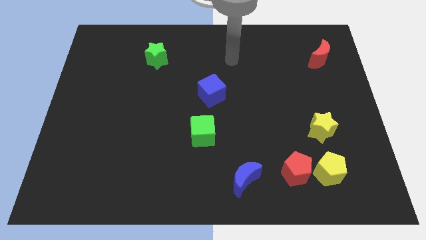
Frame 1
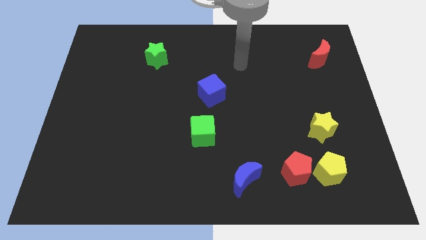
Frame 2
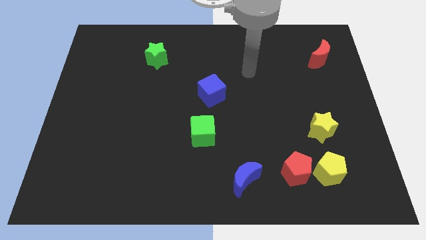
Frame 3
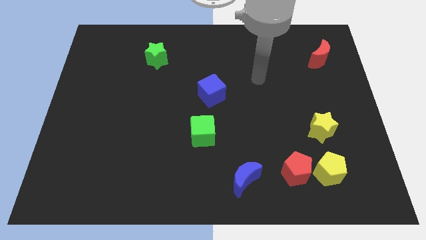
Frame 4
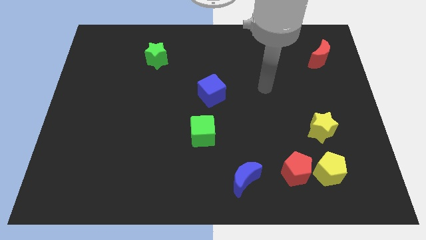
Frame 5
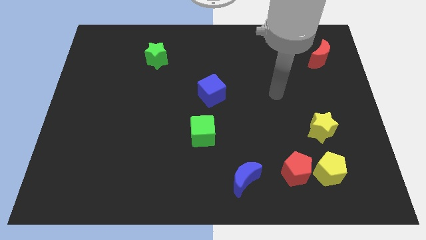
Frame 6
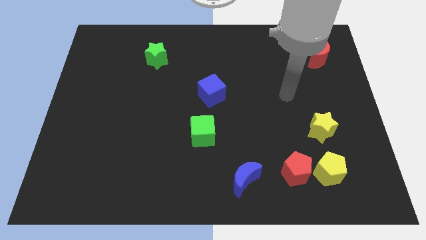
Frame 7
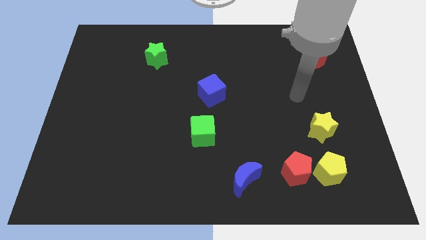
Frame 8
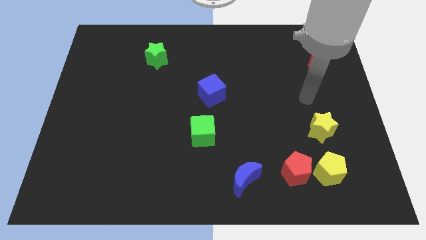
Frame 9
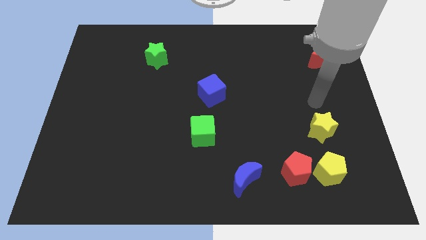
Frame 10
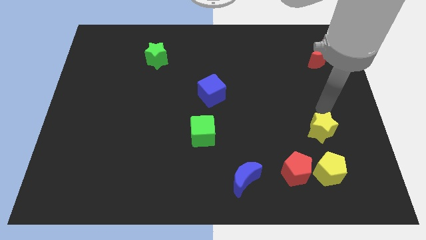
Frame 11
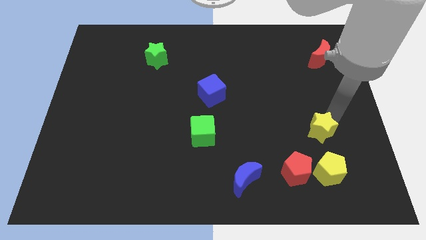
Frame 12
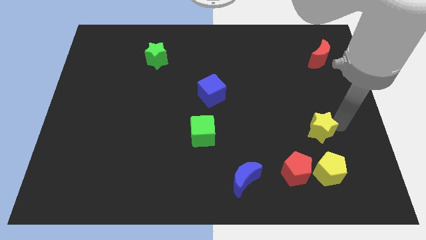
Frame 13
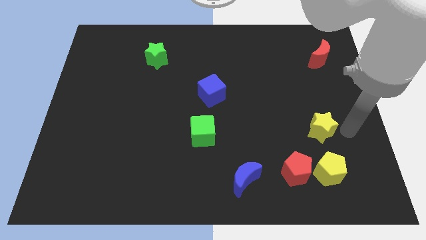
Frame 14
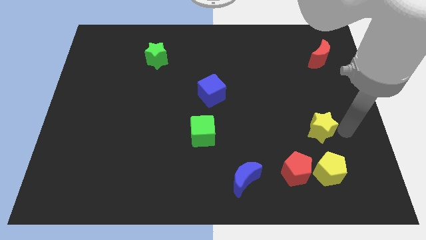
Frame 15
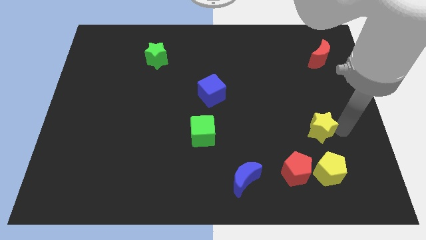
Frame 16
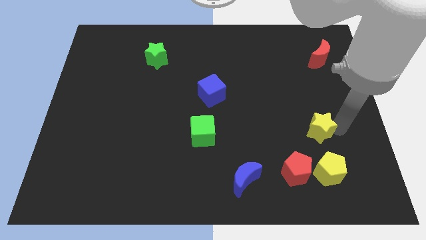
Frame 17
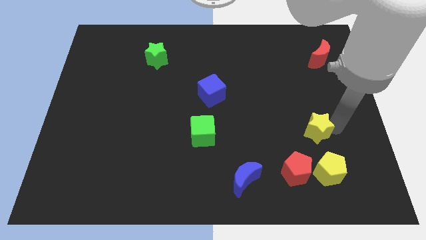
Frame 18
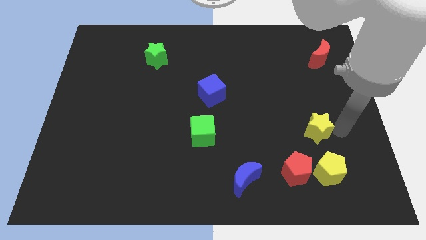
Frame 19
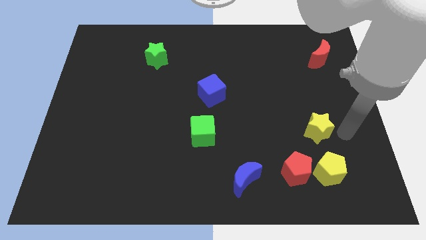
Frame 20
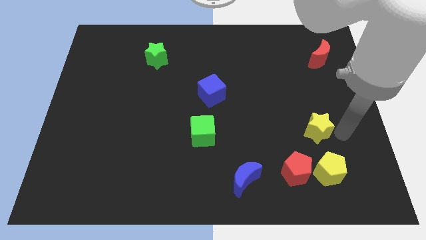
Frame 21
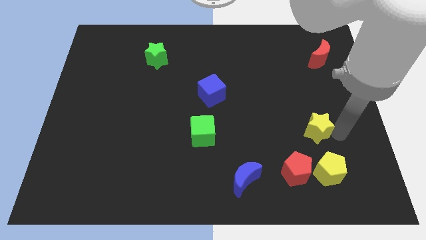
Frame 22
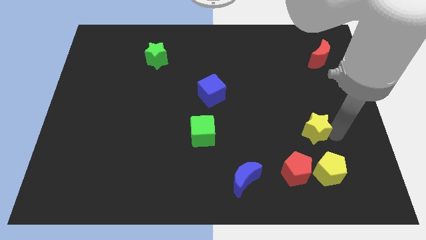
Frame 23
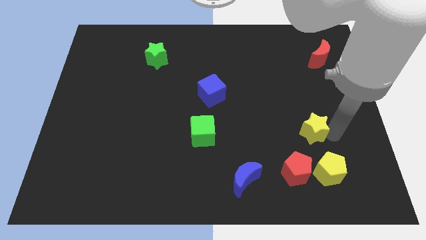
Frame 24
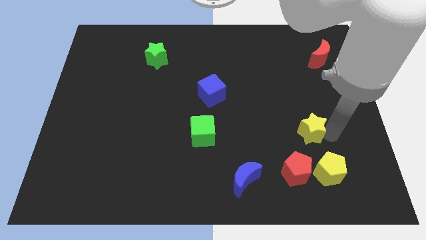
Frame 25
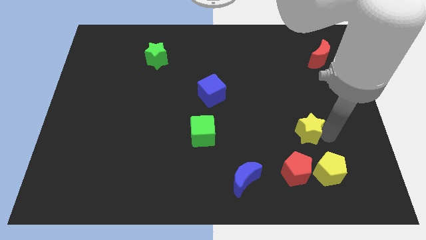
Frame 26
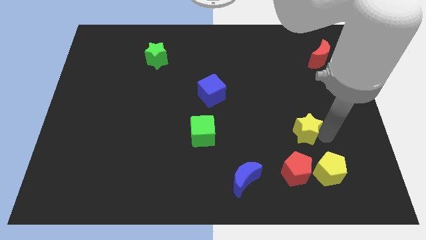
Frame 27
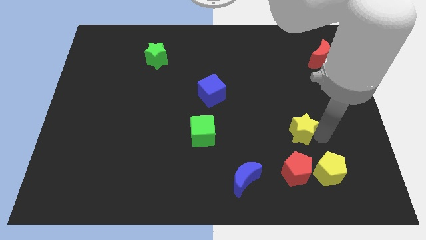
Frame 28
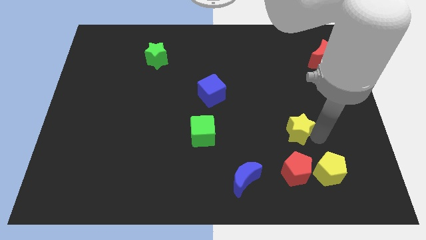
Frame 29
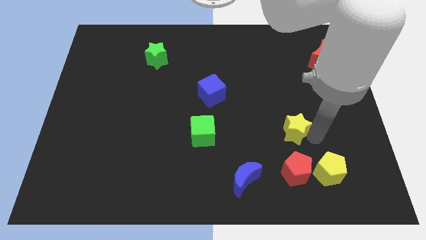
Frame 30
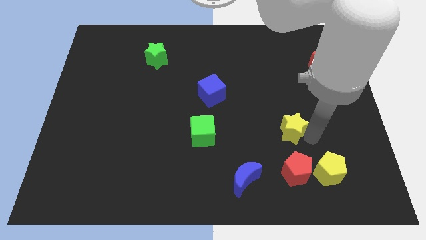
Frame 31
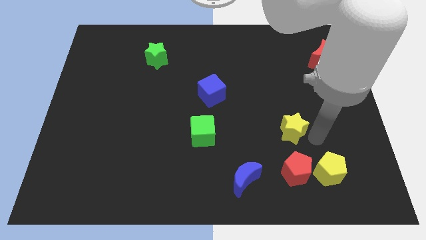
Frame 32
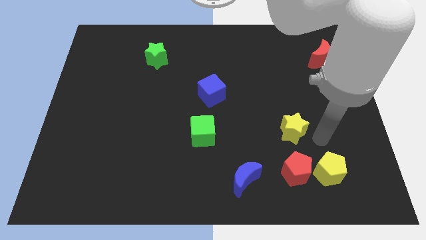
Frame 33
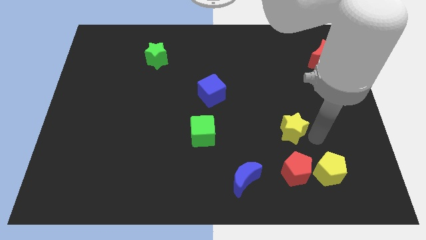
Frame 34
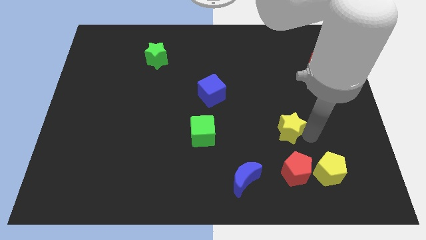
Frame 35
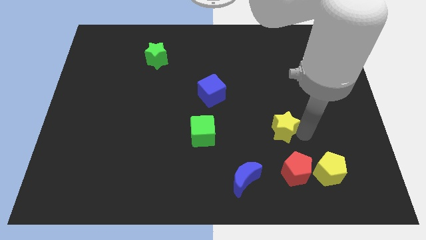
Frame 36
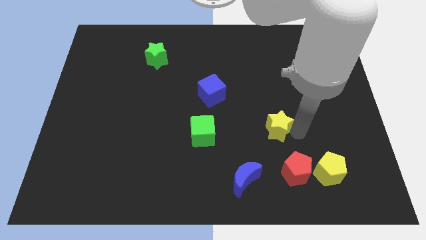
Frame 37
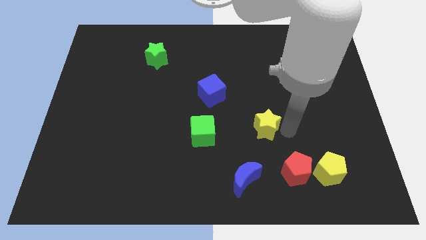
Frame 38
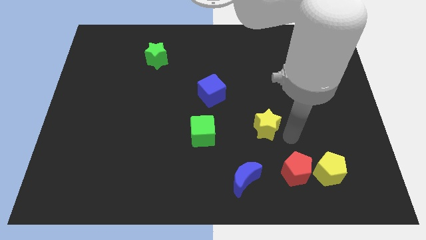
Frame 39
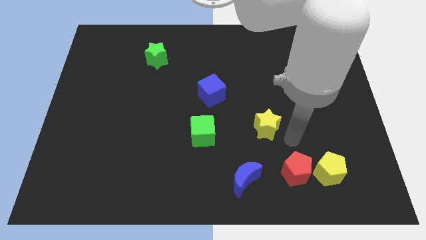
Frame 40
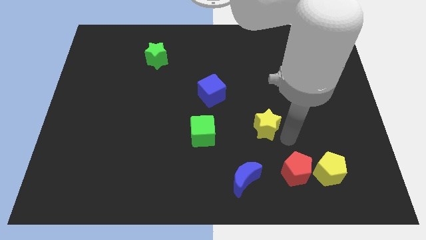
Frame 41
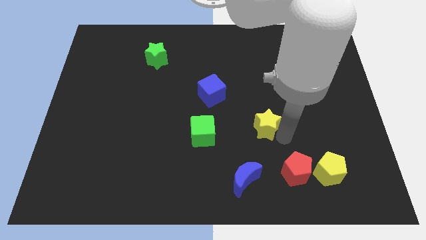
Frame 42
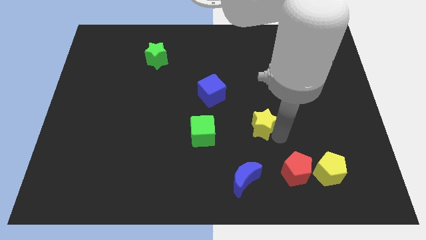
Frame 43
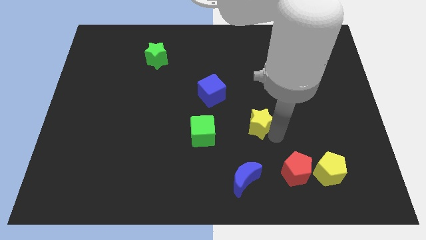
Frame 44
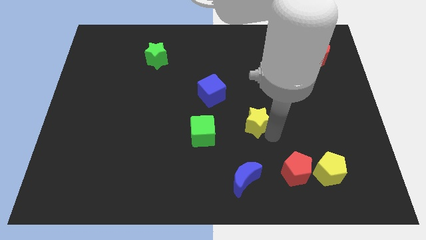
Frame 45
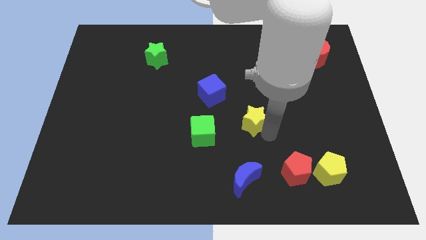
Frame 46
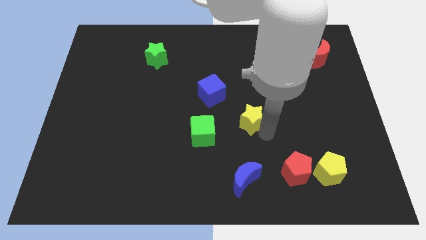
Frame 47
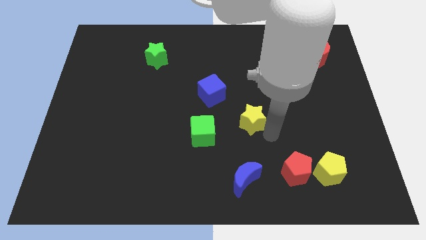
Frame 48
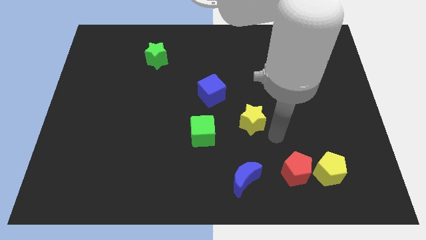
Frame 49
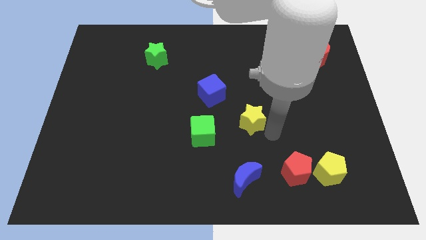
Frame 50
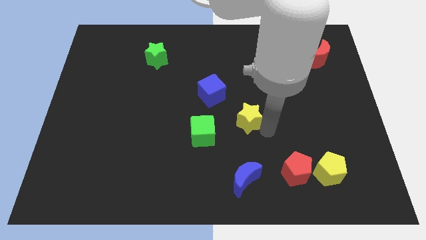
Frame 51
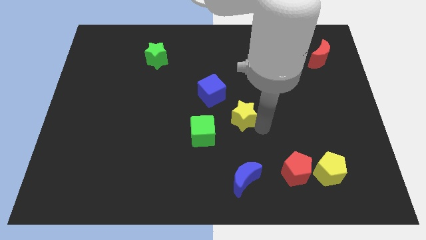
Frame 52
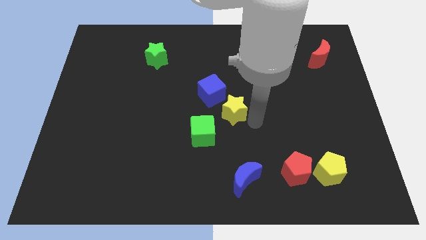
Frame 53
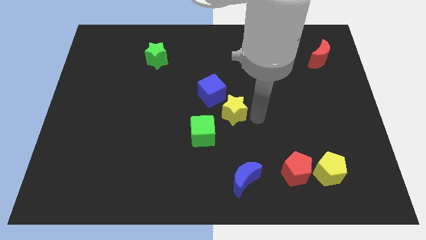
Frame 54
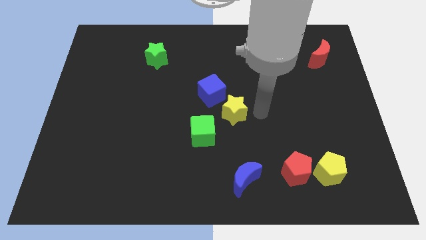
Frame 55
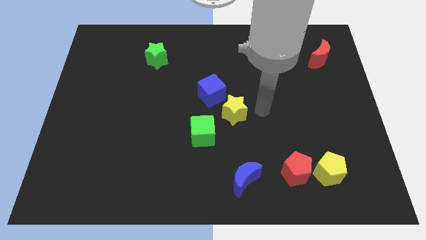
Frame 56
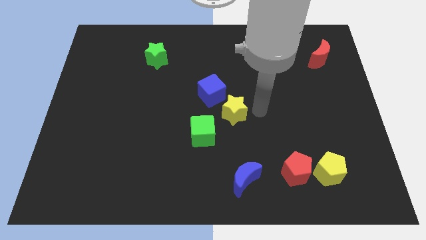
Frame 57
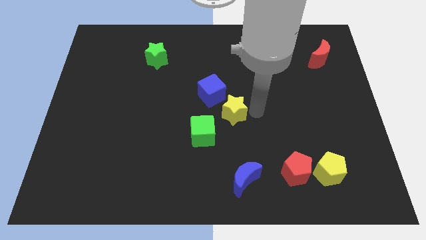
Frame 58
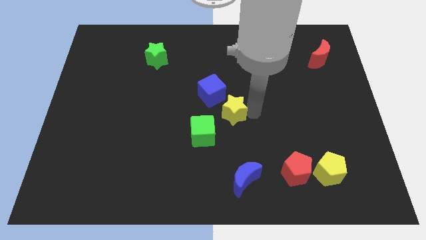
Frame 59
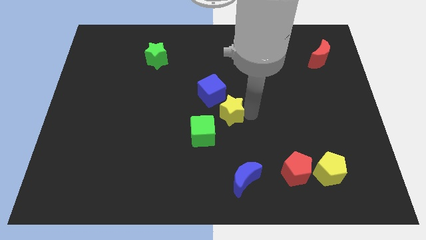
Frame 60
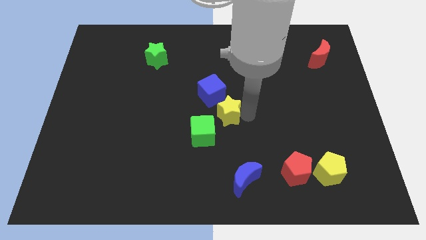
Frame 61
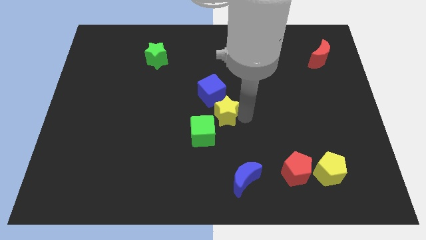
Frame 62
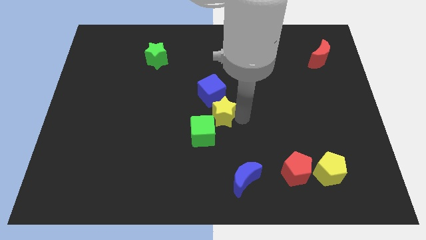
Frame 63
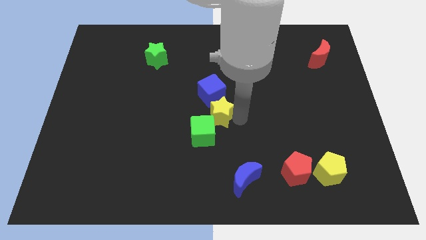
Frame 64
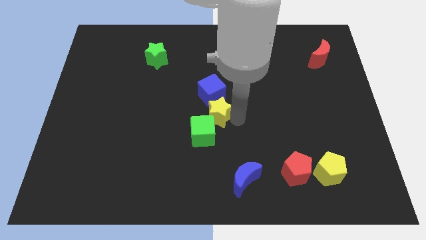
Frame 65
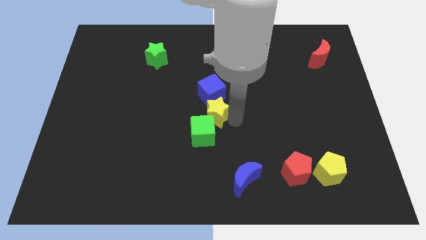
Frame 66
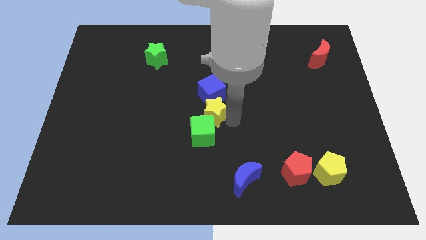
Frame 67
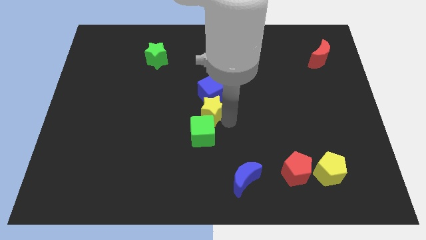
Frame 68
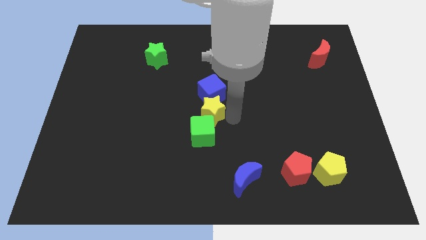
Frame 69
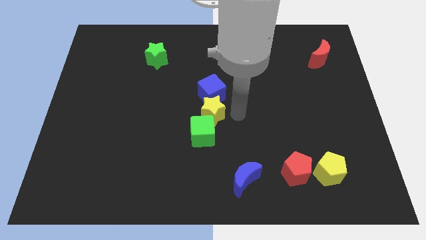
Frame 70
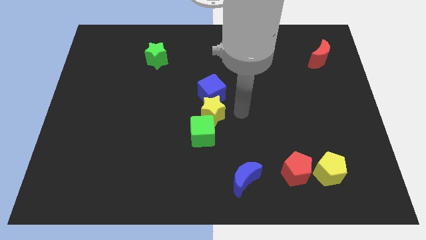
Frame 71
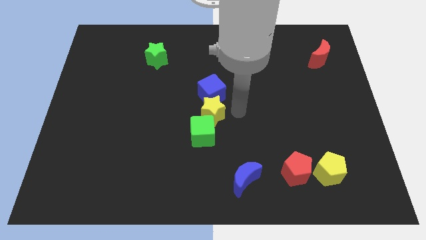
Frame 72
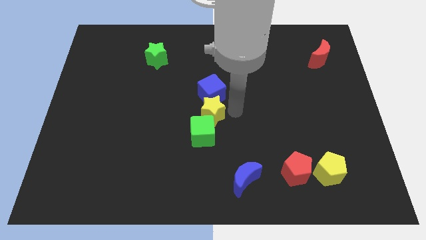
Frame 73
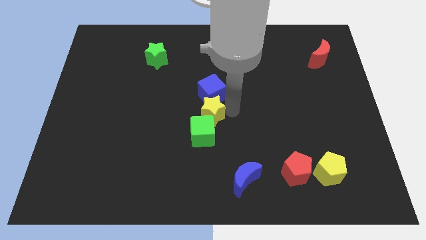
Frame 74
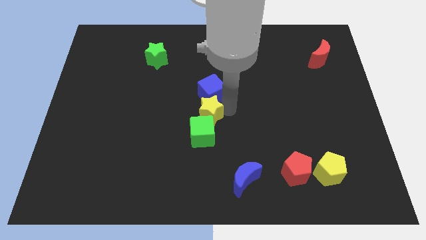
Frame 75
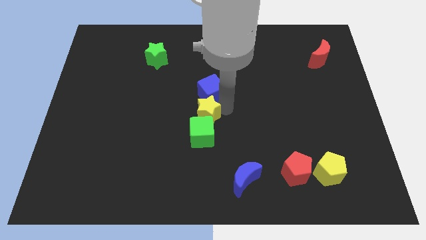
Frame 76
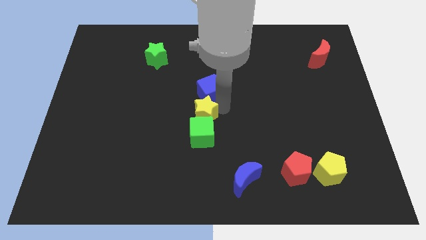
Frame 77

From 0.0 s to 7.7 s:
put the yellow star to the top left side of the green cube
